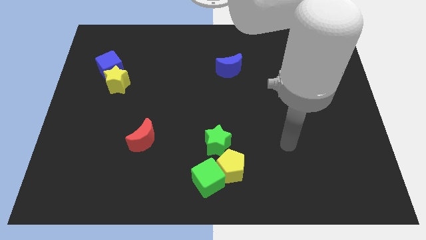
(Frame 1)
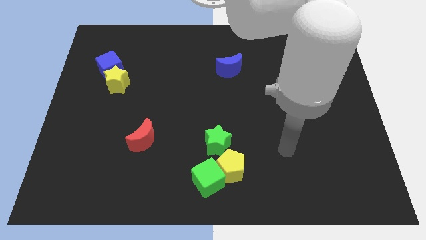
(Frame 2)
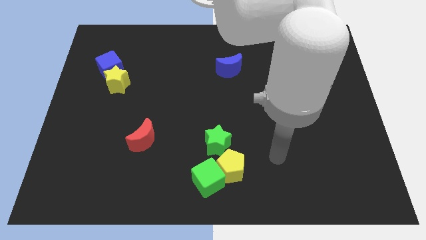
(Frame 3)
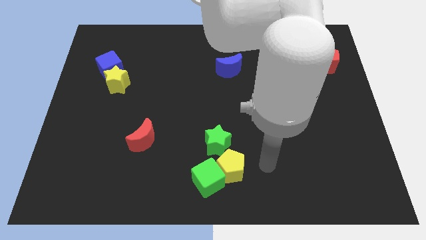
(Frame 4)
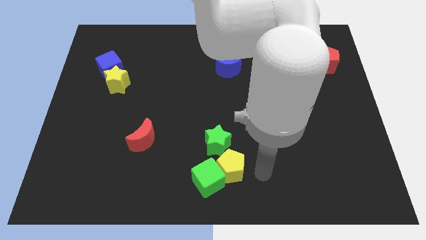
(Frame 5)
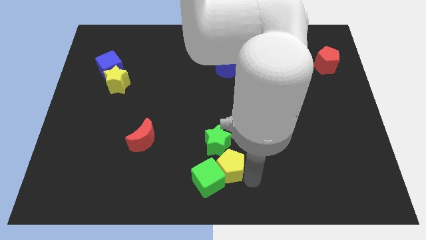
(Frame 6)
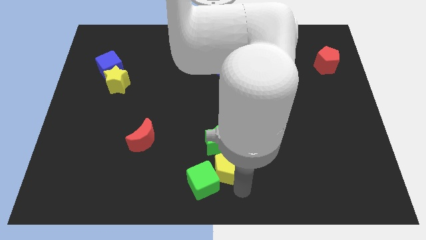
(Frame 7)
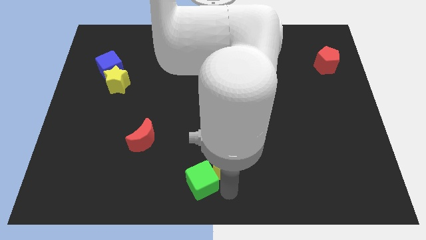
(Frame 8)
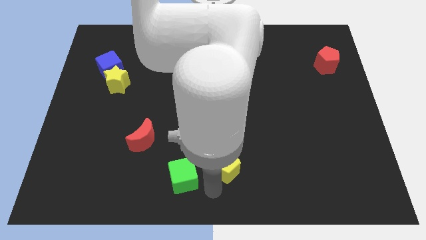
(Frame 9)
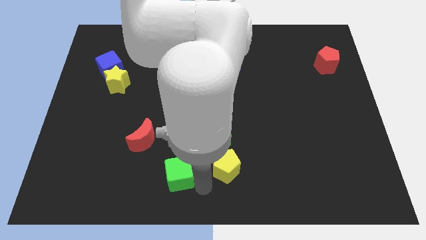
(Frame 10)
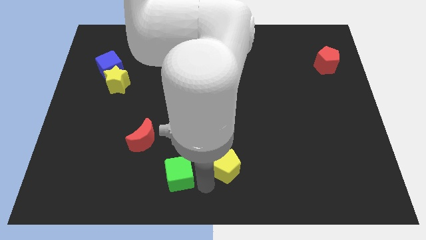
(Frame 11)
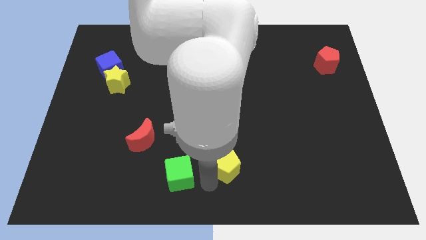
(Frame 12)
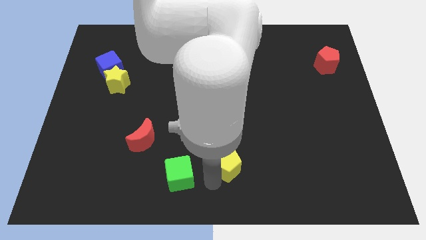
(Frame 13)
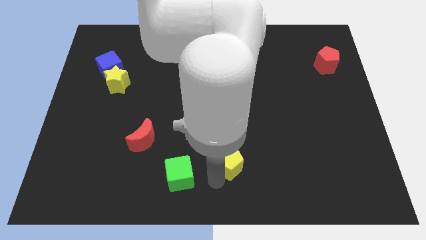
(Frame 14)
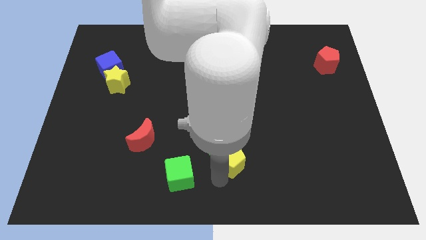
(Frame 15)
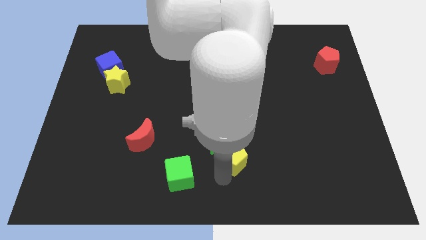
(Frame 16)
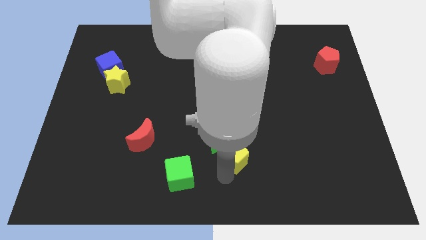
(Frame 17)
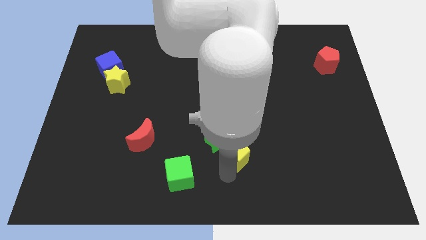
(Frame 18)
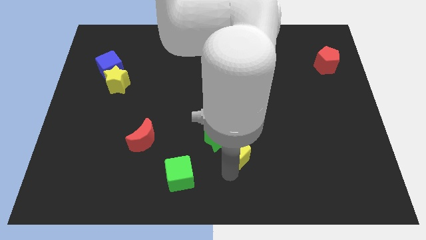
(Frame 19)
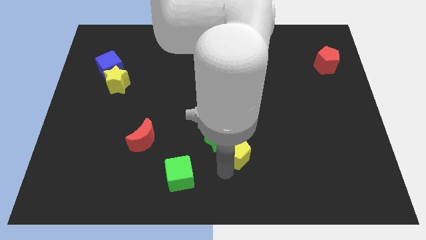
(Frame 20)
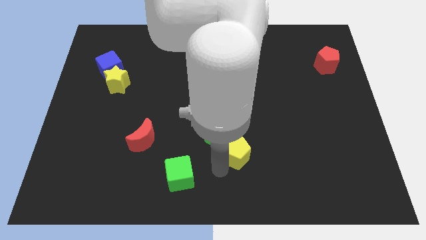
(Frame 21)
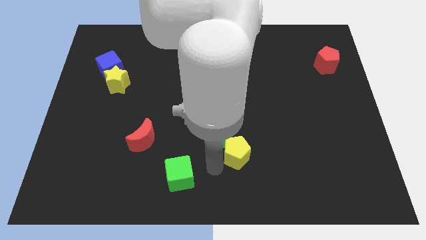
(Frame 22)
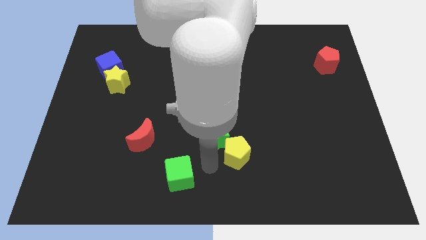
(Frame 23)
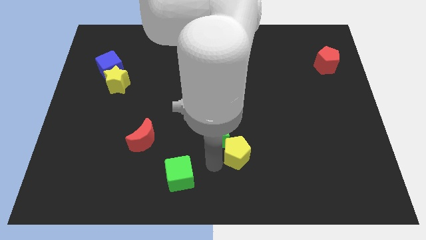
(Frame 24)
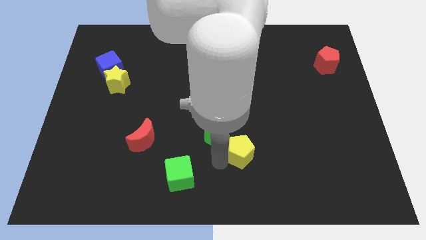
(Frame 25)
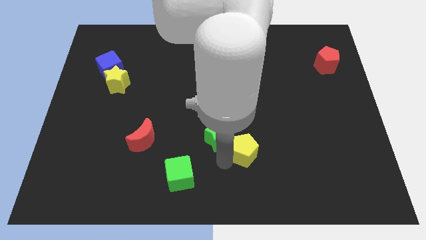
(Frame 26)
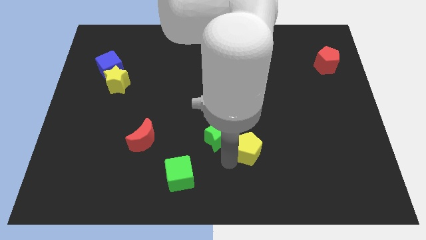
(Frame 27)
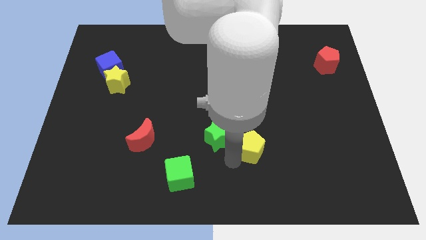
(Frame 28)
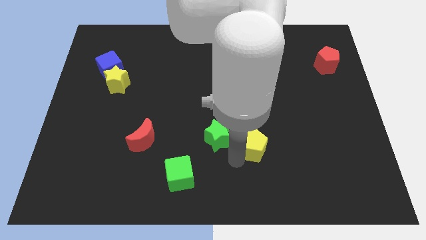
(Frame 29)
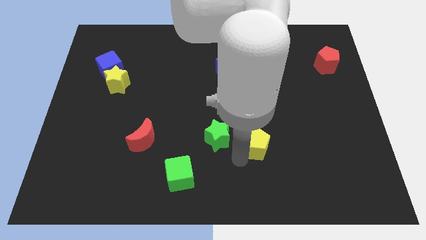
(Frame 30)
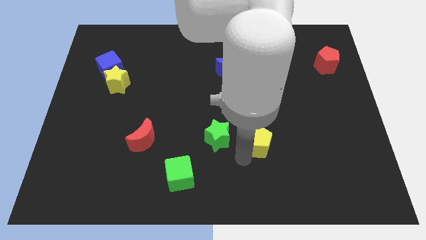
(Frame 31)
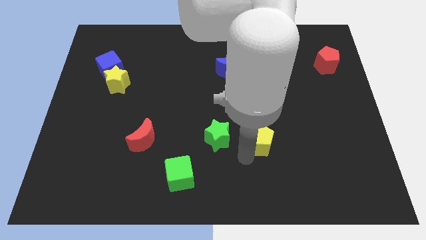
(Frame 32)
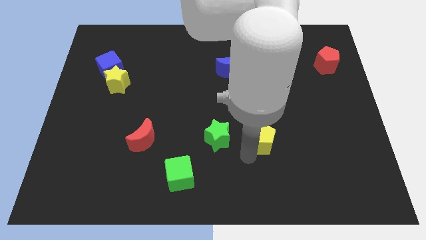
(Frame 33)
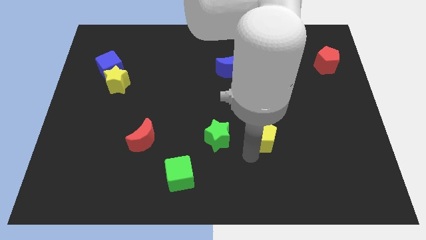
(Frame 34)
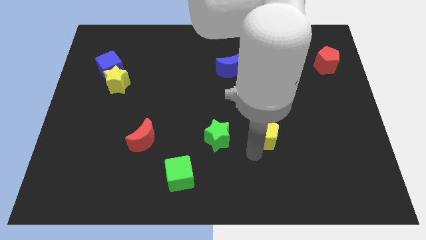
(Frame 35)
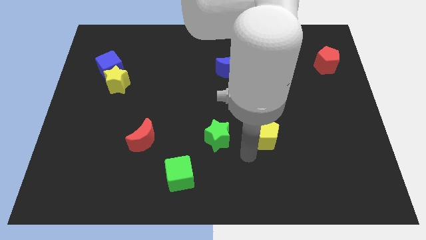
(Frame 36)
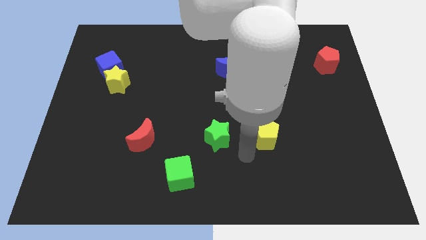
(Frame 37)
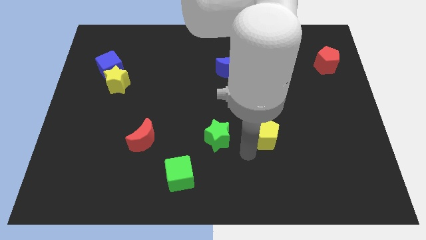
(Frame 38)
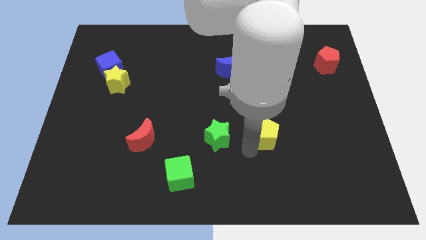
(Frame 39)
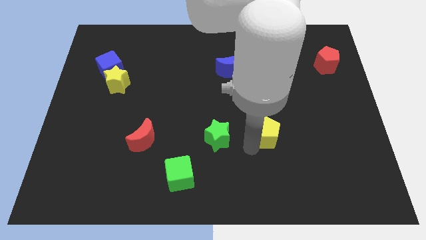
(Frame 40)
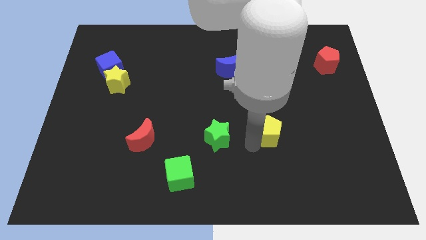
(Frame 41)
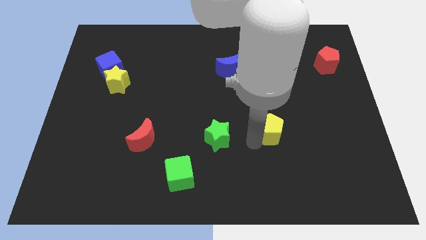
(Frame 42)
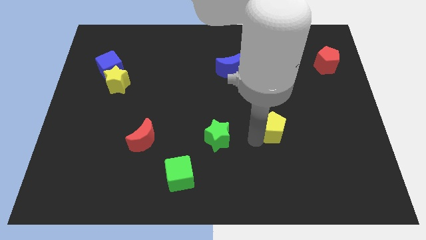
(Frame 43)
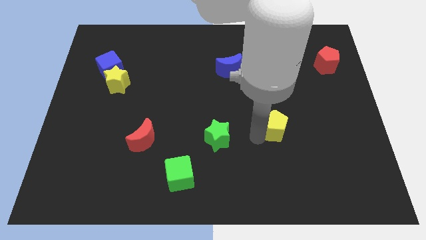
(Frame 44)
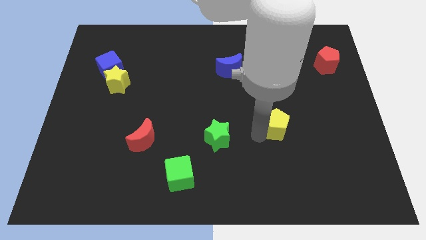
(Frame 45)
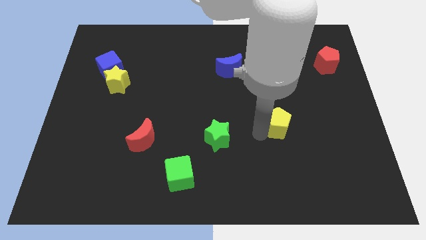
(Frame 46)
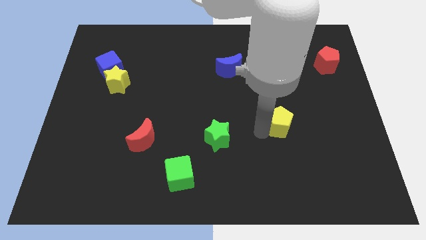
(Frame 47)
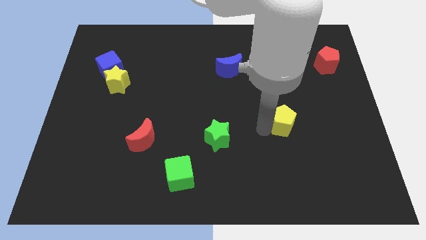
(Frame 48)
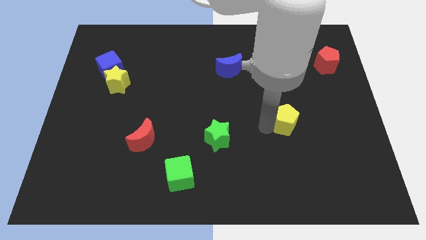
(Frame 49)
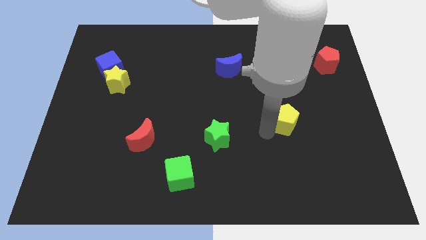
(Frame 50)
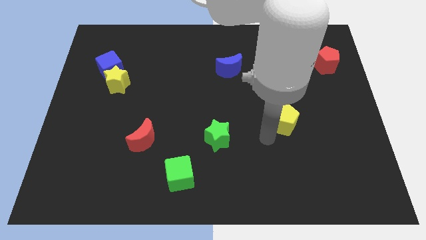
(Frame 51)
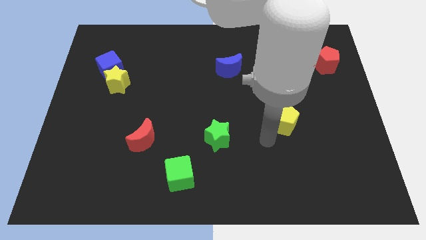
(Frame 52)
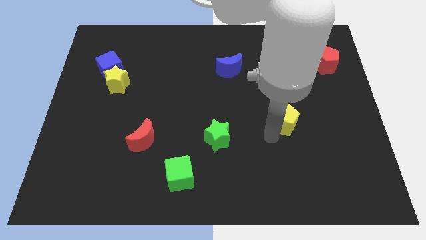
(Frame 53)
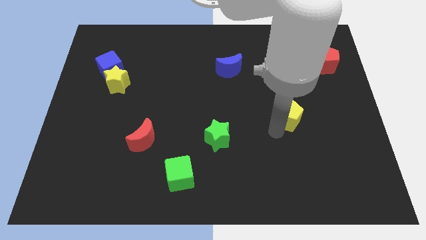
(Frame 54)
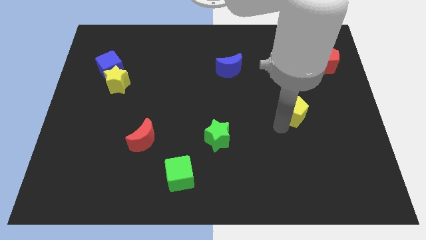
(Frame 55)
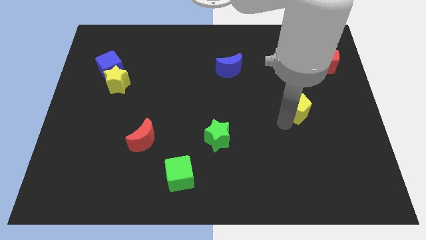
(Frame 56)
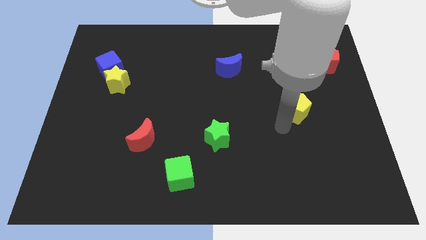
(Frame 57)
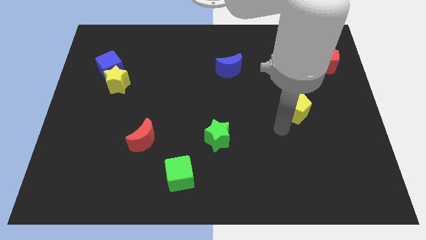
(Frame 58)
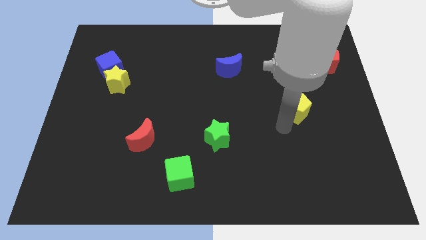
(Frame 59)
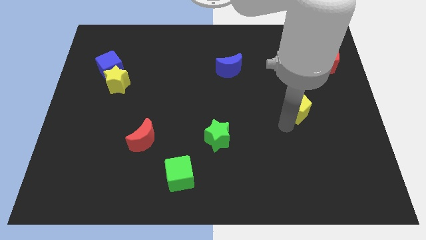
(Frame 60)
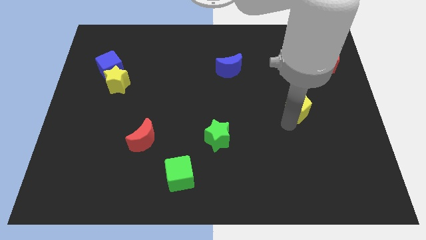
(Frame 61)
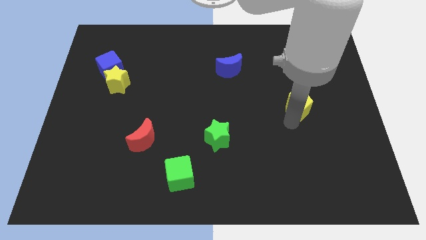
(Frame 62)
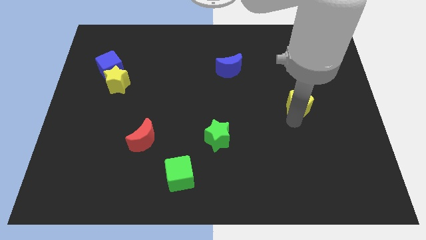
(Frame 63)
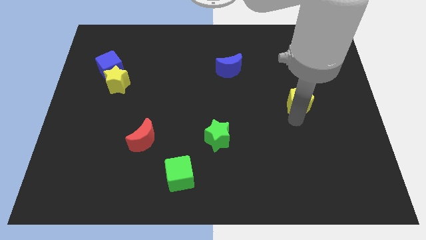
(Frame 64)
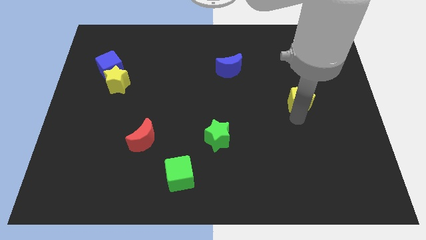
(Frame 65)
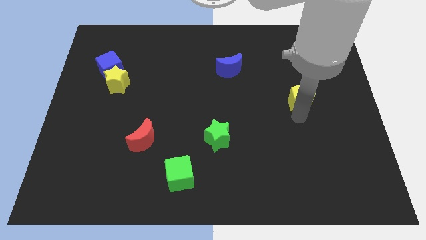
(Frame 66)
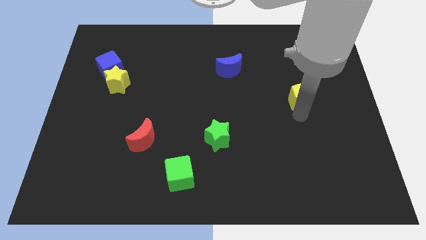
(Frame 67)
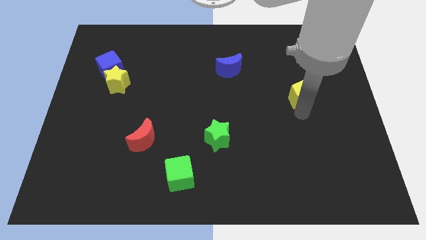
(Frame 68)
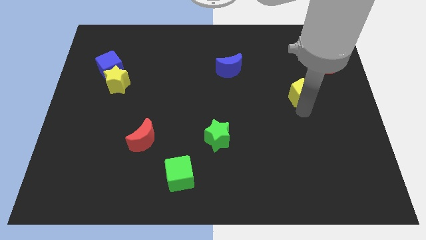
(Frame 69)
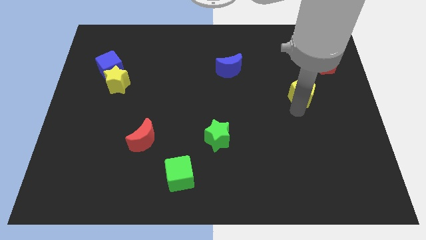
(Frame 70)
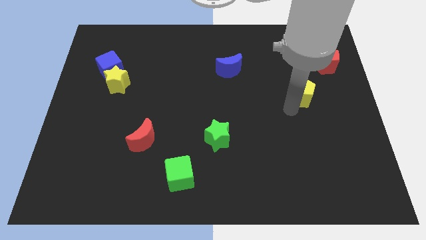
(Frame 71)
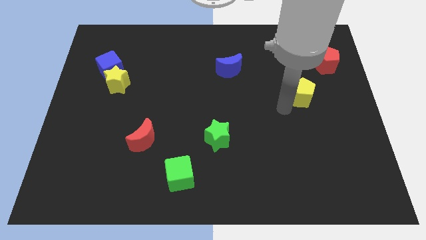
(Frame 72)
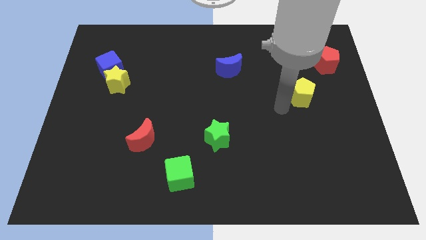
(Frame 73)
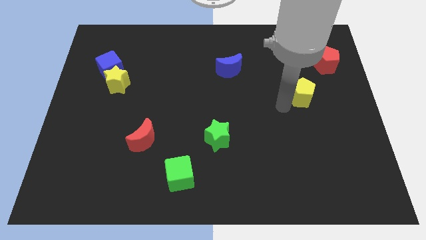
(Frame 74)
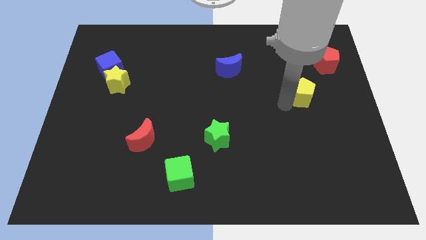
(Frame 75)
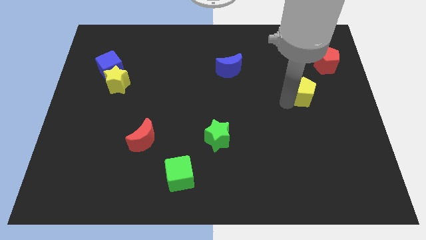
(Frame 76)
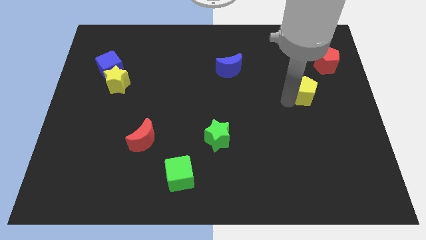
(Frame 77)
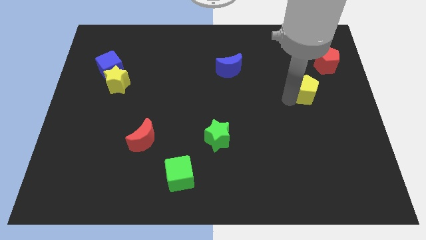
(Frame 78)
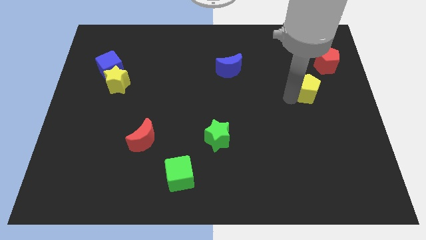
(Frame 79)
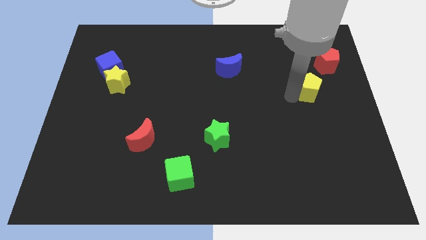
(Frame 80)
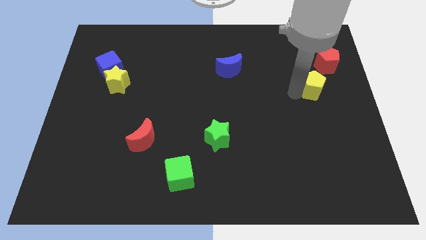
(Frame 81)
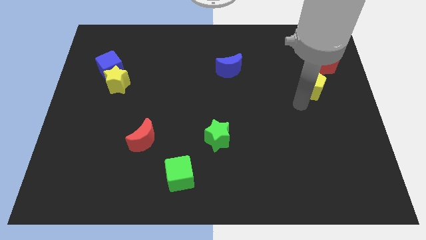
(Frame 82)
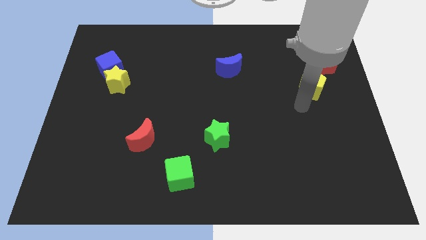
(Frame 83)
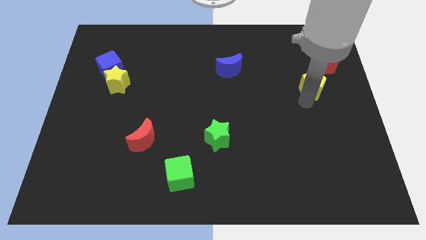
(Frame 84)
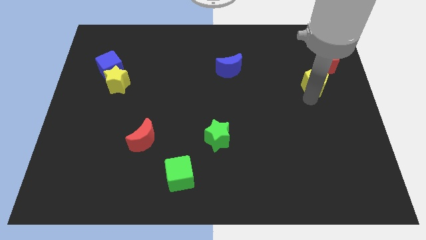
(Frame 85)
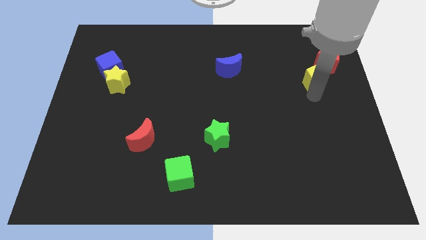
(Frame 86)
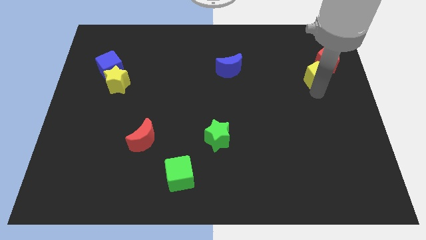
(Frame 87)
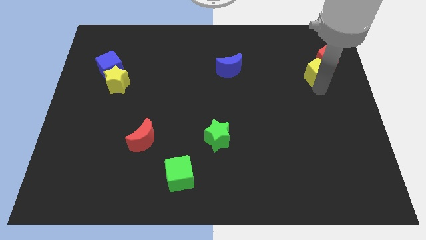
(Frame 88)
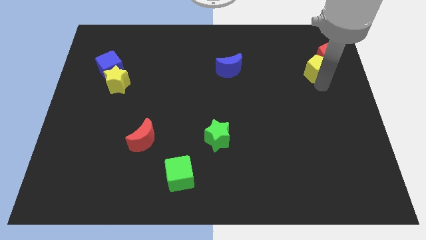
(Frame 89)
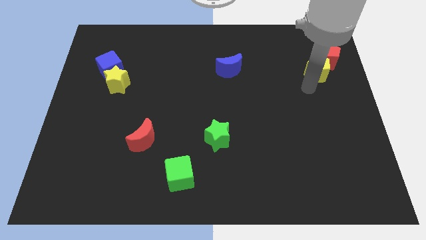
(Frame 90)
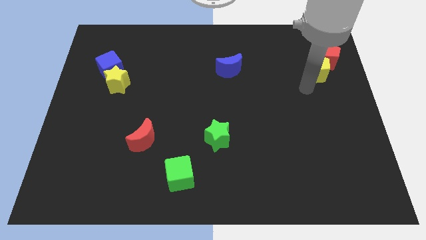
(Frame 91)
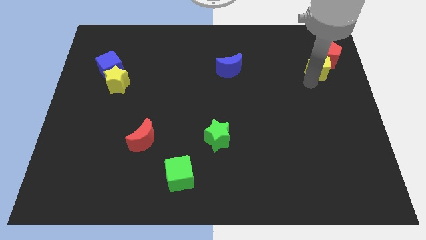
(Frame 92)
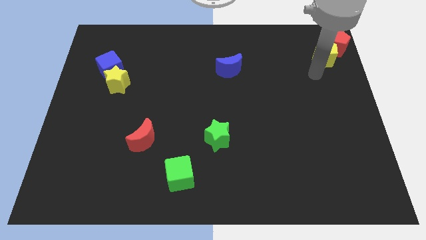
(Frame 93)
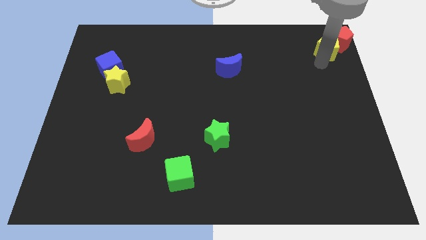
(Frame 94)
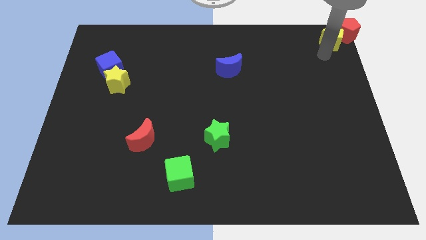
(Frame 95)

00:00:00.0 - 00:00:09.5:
move the yellow pentagon to the top right corner
